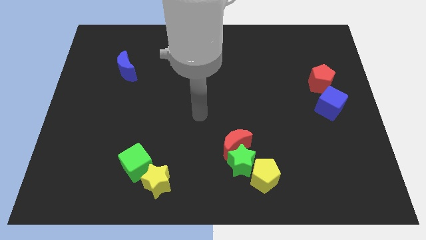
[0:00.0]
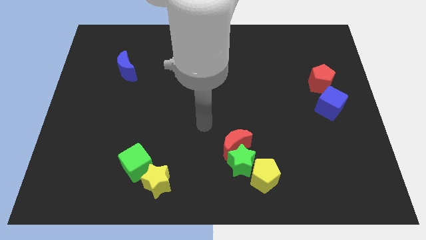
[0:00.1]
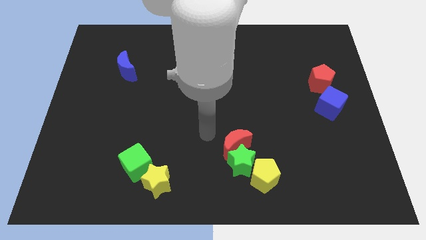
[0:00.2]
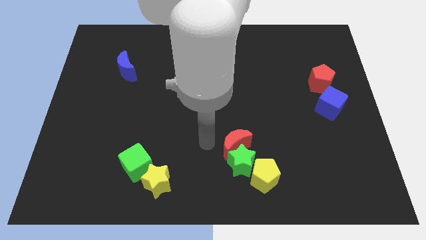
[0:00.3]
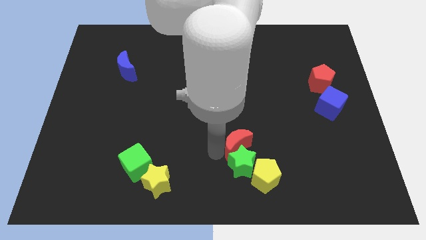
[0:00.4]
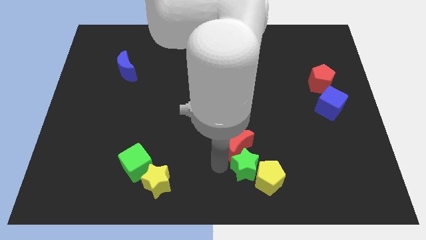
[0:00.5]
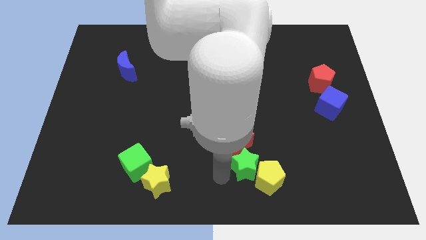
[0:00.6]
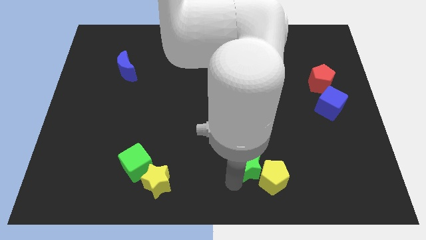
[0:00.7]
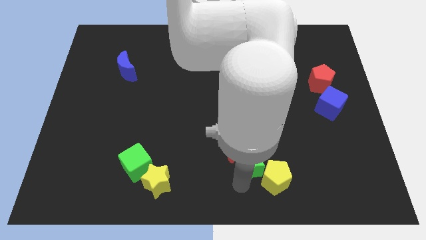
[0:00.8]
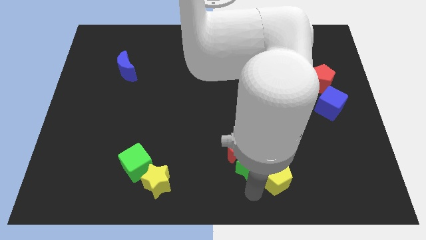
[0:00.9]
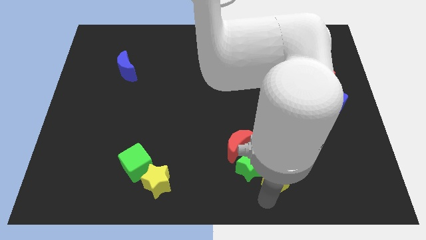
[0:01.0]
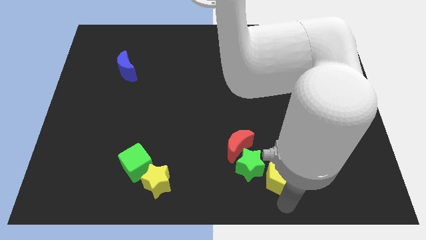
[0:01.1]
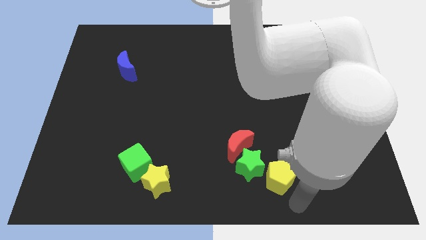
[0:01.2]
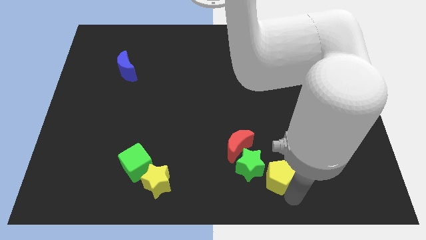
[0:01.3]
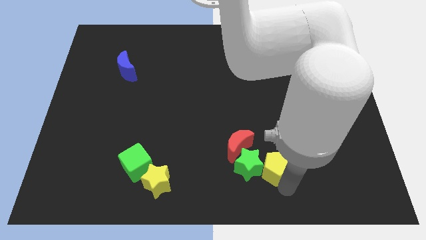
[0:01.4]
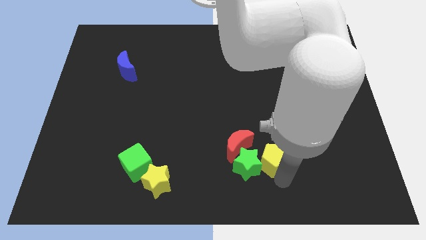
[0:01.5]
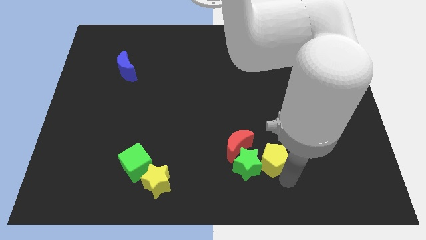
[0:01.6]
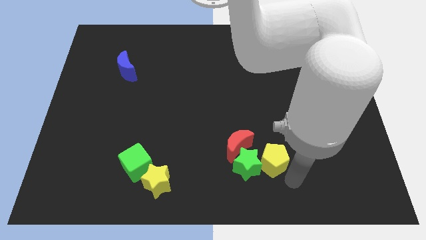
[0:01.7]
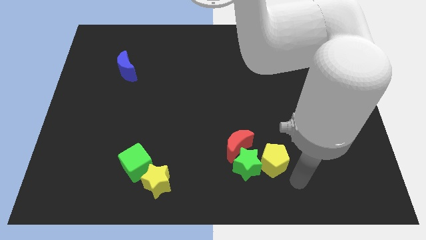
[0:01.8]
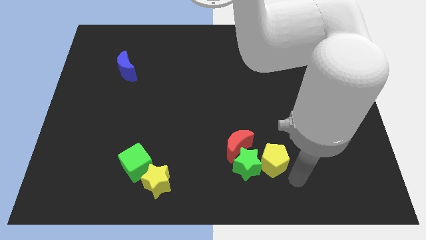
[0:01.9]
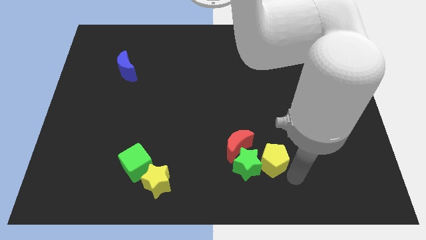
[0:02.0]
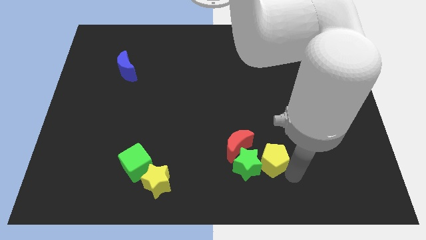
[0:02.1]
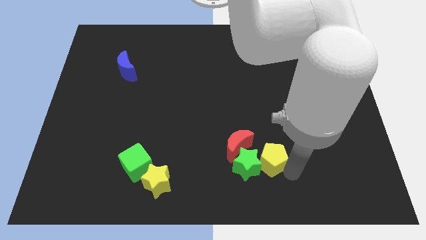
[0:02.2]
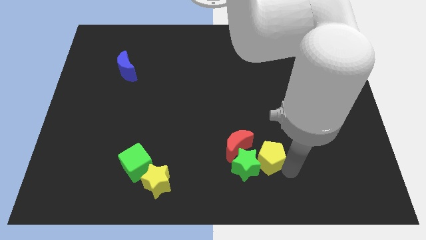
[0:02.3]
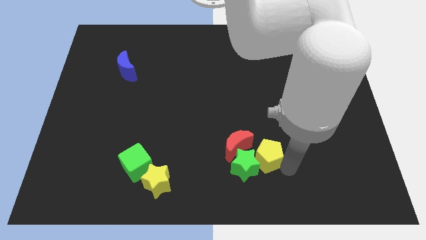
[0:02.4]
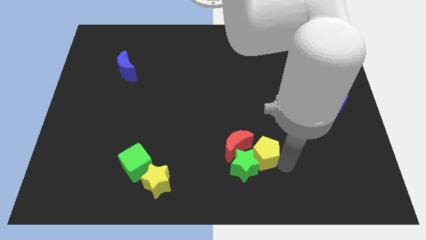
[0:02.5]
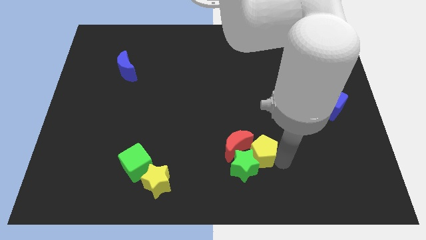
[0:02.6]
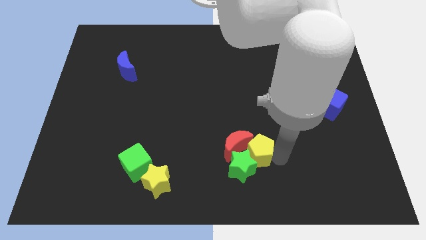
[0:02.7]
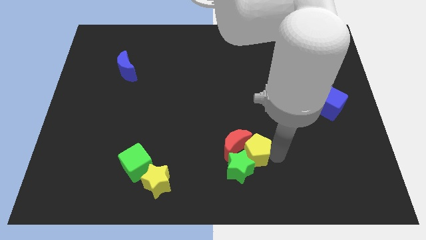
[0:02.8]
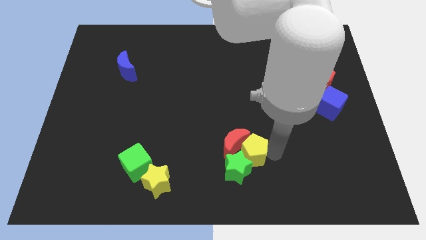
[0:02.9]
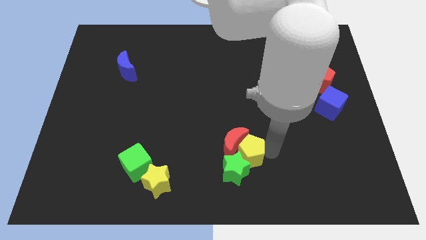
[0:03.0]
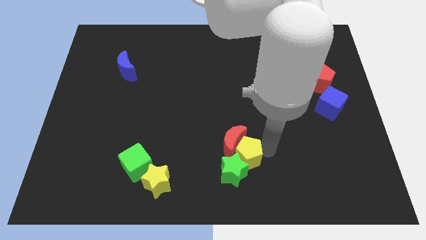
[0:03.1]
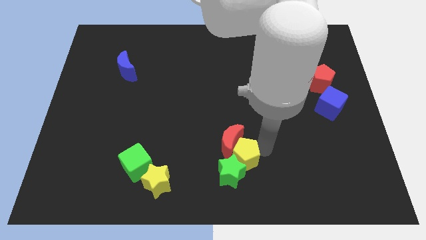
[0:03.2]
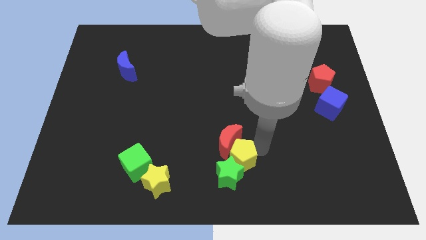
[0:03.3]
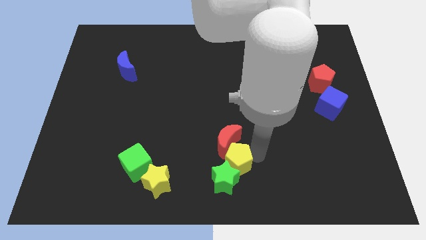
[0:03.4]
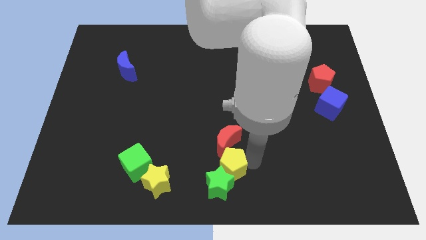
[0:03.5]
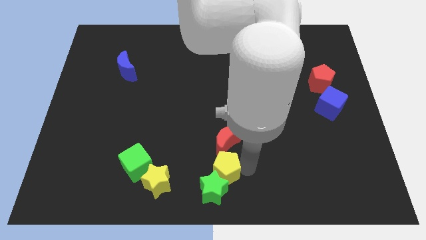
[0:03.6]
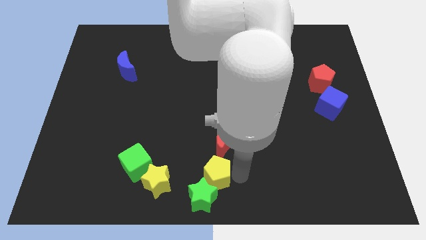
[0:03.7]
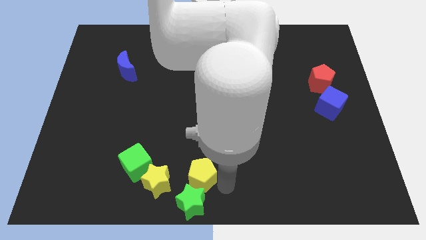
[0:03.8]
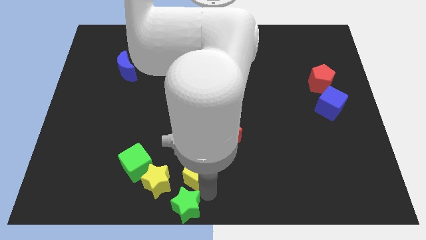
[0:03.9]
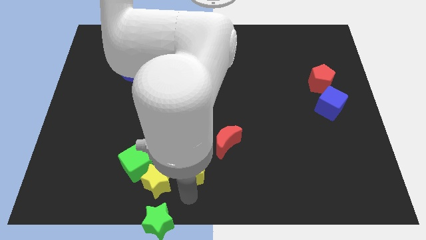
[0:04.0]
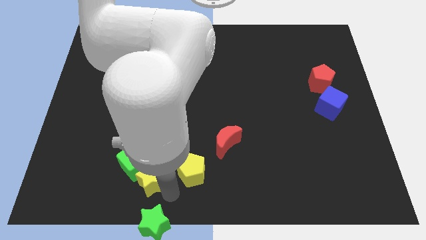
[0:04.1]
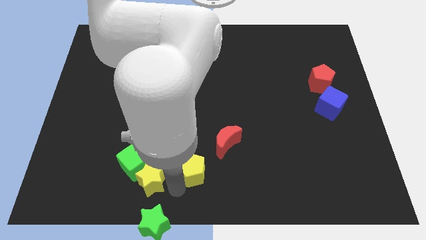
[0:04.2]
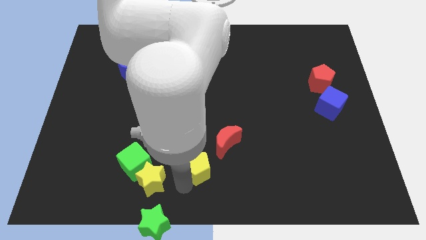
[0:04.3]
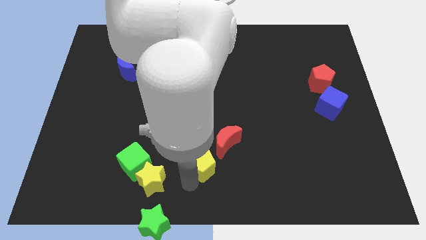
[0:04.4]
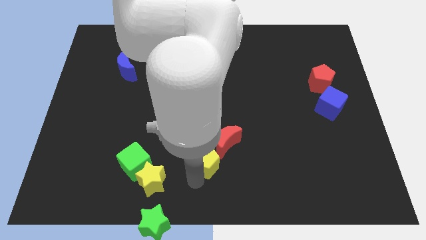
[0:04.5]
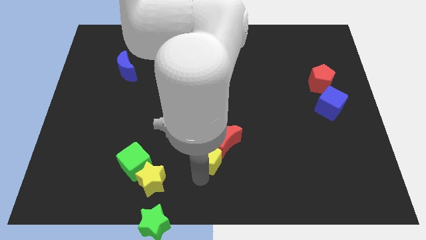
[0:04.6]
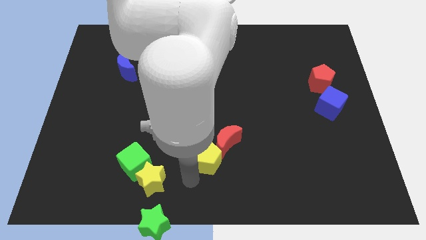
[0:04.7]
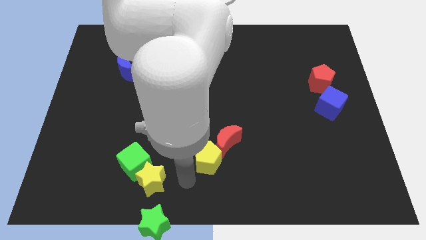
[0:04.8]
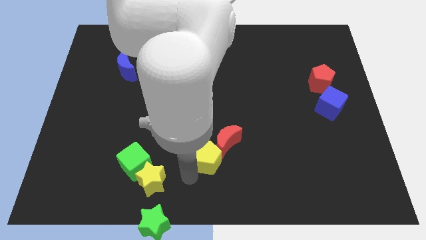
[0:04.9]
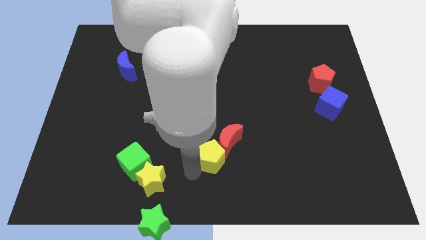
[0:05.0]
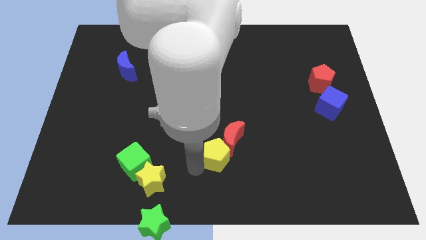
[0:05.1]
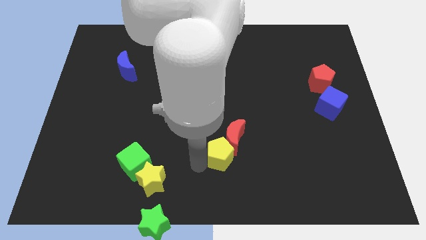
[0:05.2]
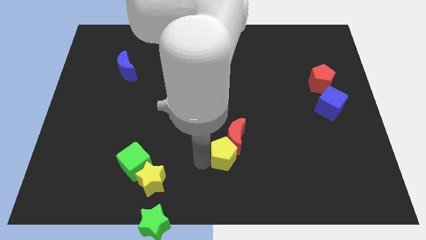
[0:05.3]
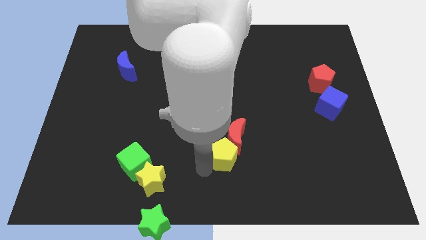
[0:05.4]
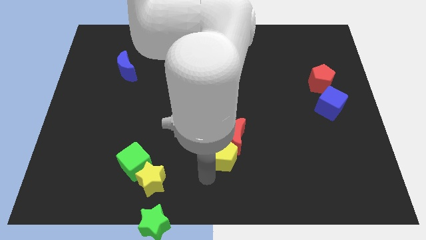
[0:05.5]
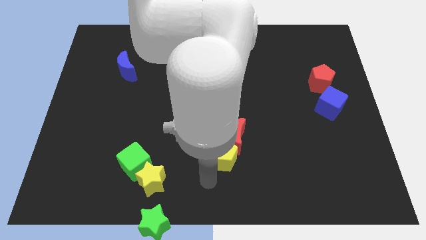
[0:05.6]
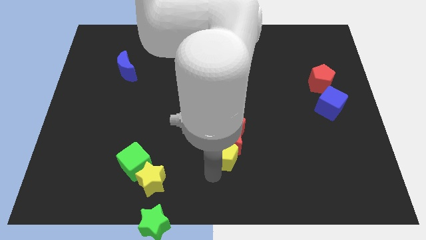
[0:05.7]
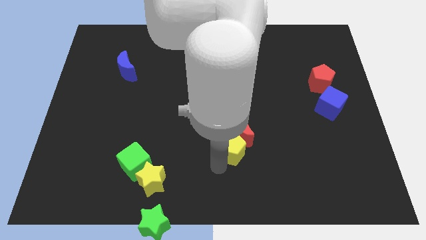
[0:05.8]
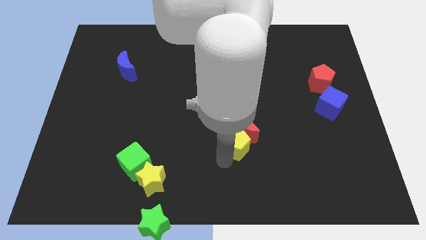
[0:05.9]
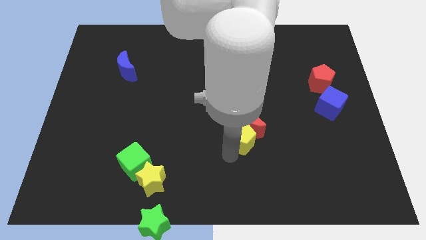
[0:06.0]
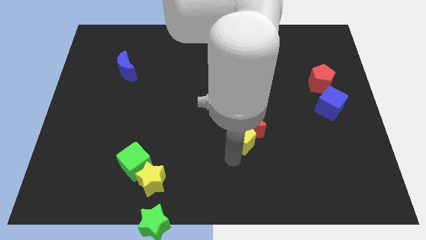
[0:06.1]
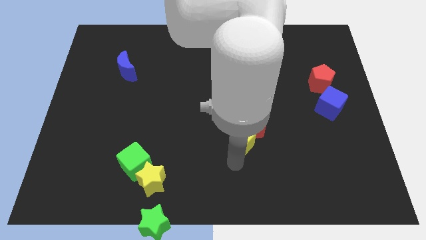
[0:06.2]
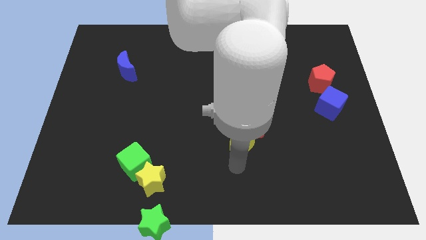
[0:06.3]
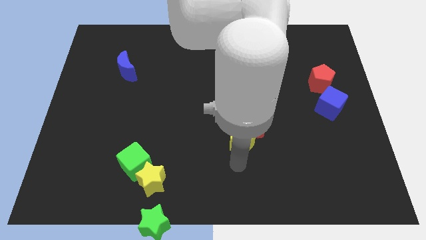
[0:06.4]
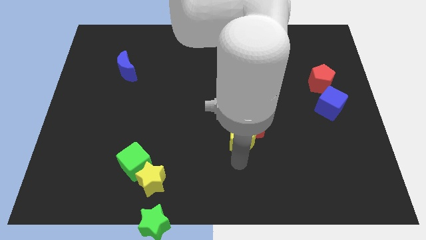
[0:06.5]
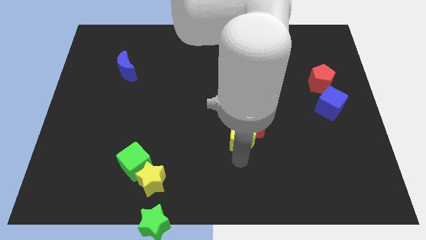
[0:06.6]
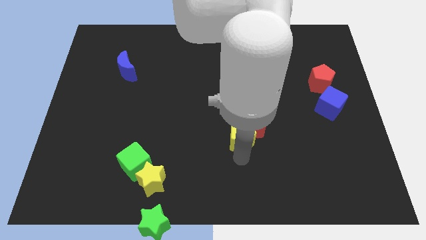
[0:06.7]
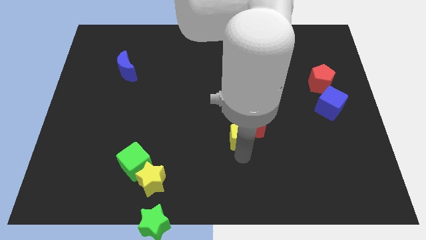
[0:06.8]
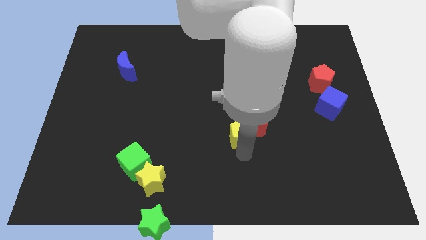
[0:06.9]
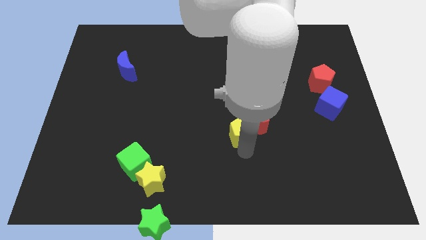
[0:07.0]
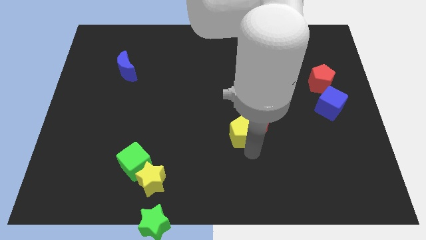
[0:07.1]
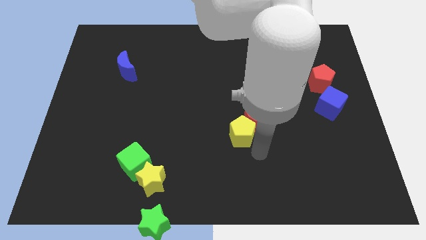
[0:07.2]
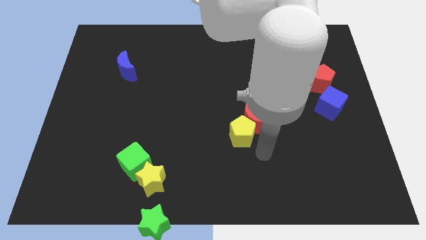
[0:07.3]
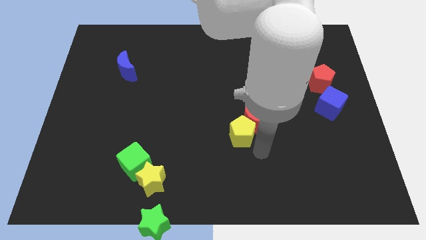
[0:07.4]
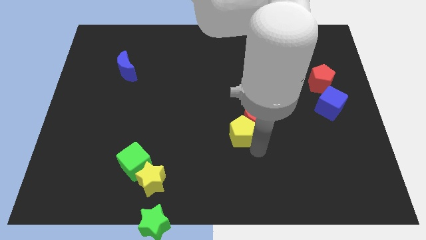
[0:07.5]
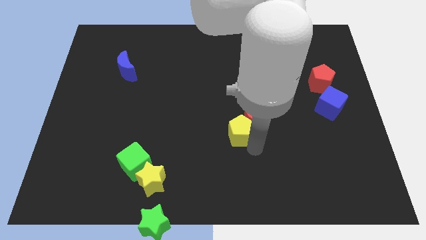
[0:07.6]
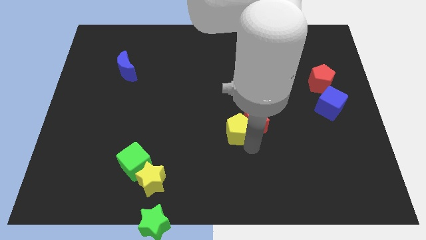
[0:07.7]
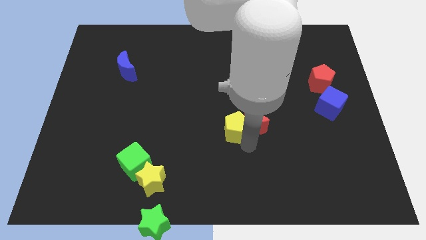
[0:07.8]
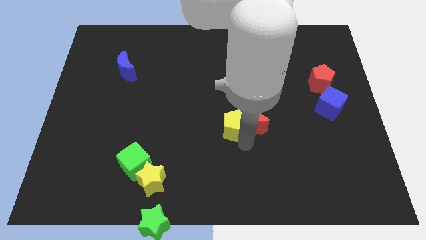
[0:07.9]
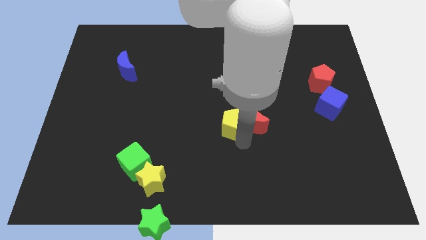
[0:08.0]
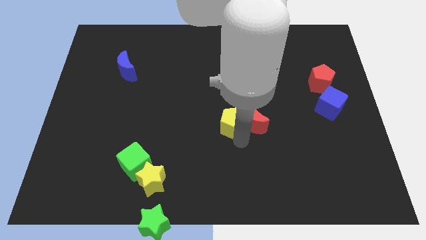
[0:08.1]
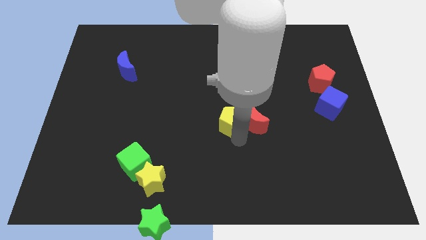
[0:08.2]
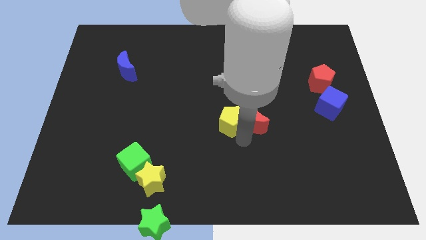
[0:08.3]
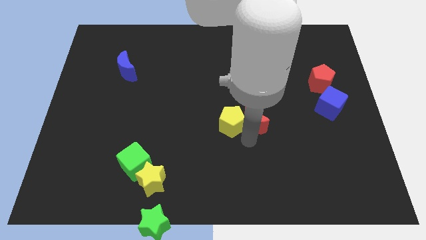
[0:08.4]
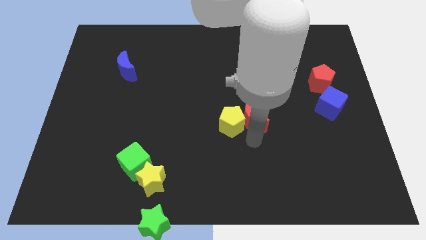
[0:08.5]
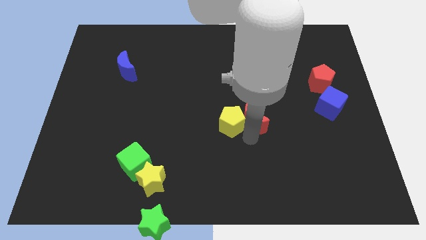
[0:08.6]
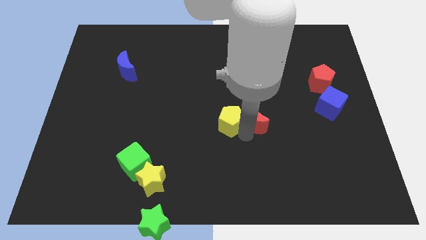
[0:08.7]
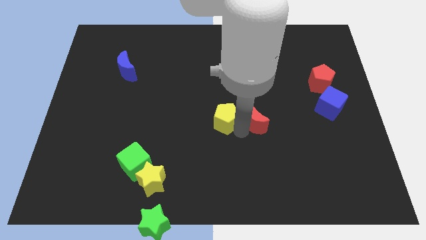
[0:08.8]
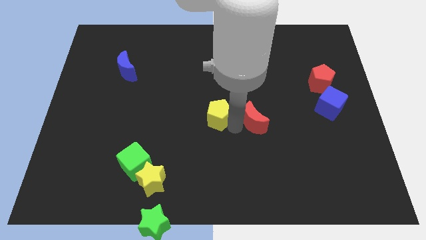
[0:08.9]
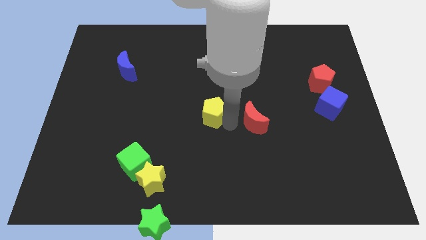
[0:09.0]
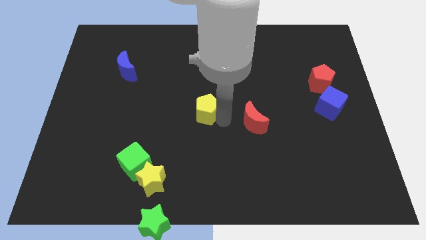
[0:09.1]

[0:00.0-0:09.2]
push the yellow pentagon diagonally up and left
